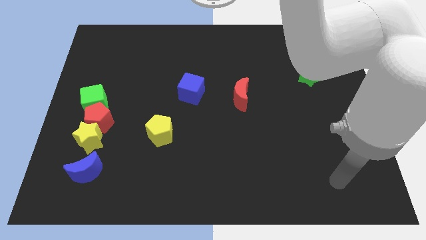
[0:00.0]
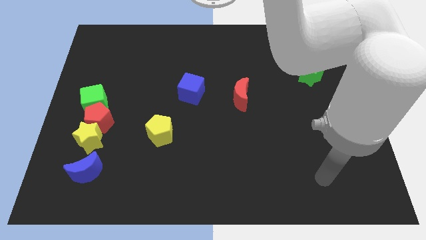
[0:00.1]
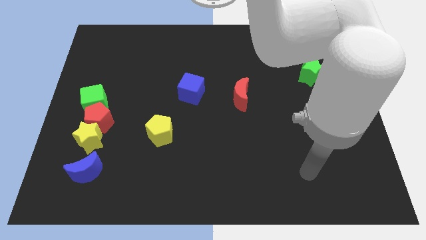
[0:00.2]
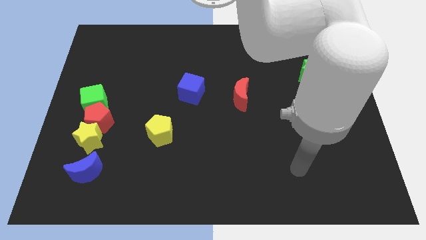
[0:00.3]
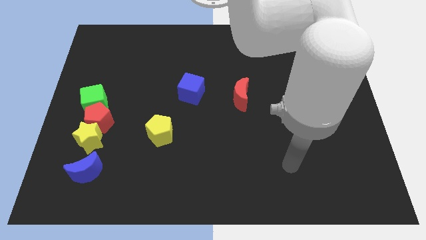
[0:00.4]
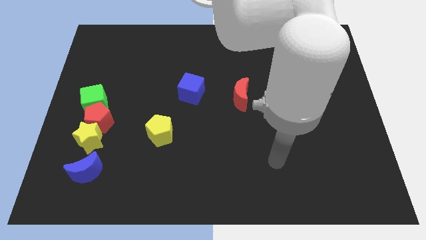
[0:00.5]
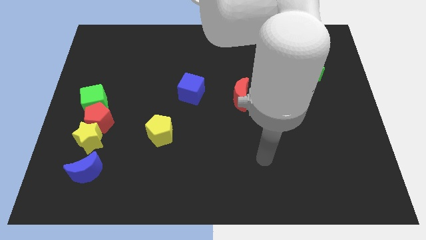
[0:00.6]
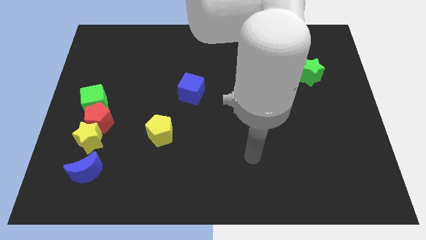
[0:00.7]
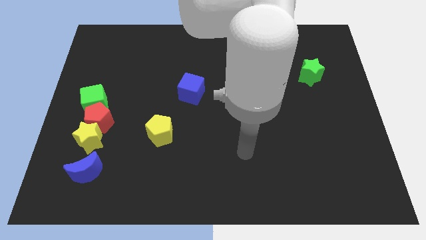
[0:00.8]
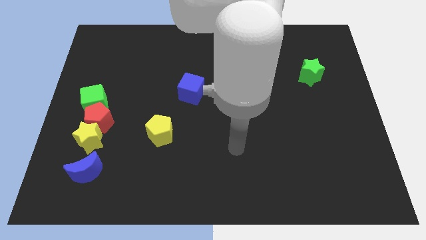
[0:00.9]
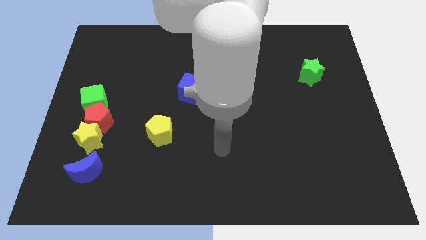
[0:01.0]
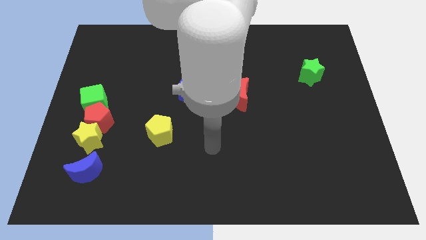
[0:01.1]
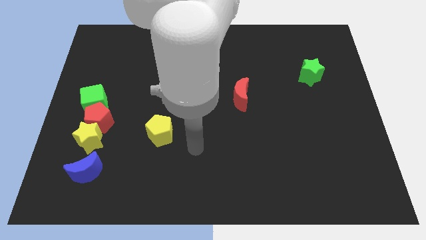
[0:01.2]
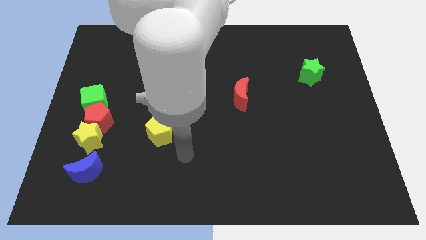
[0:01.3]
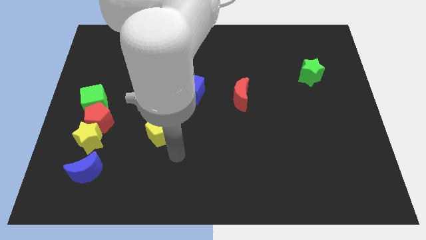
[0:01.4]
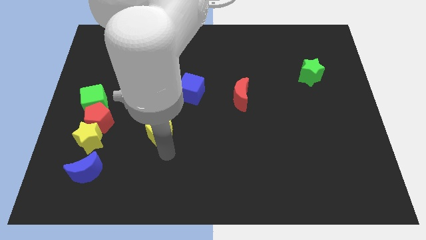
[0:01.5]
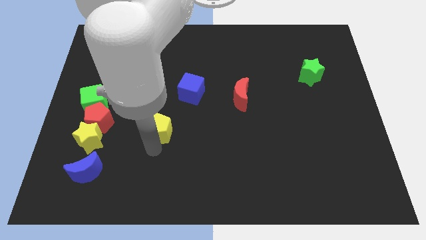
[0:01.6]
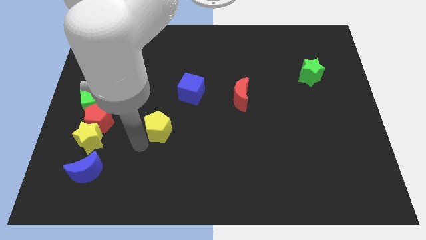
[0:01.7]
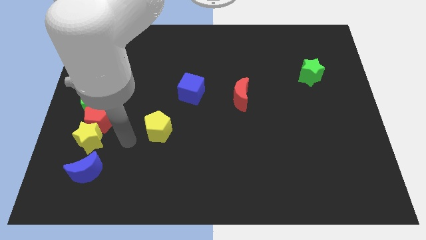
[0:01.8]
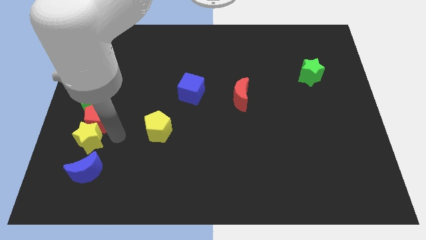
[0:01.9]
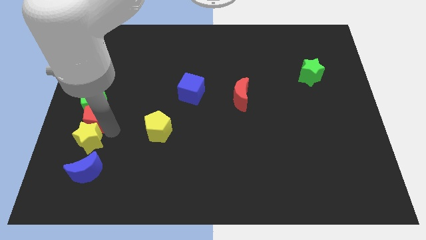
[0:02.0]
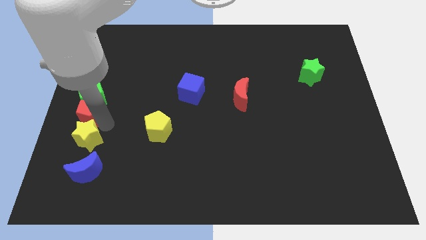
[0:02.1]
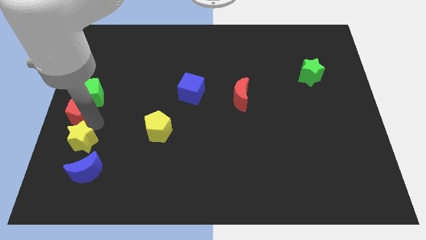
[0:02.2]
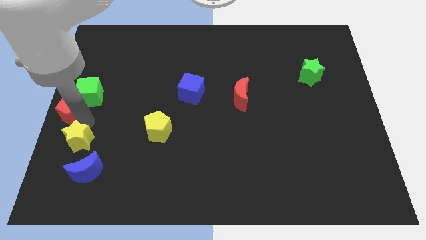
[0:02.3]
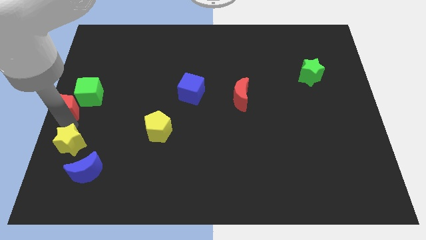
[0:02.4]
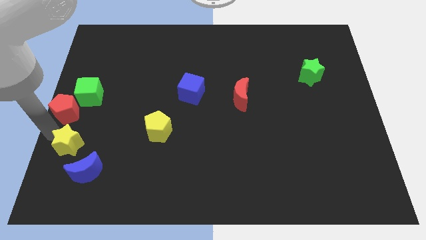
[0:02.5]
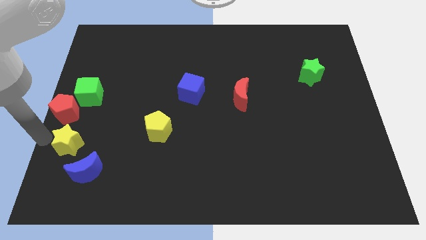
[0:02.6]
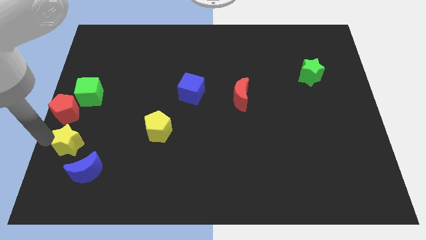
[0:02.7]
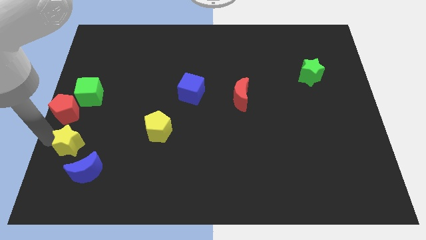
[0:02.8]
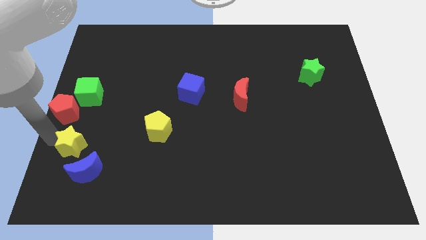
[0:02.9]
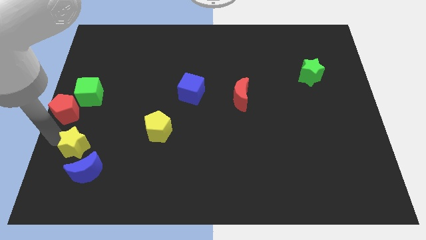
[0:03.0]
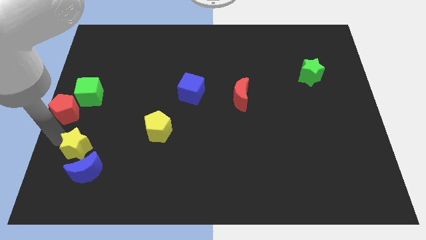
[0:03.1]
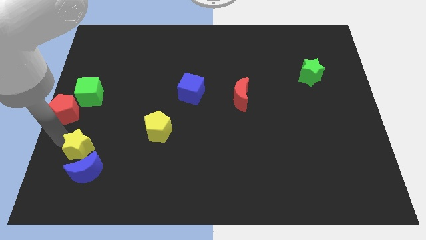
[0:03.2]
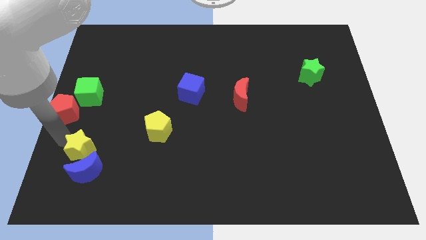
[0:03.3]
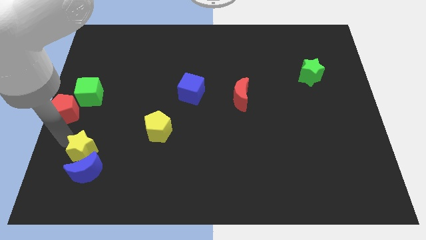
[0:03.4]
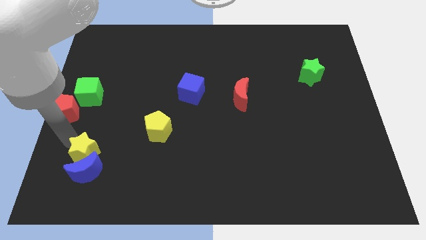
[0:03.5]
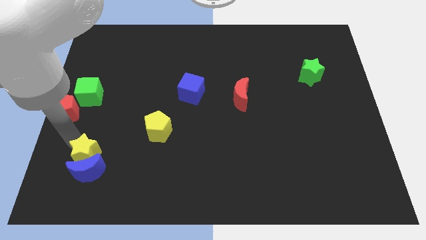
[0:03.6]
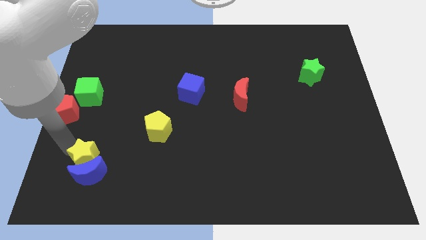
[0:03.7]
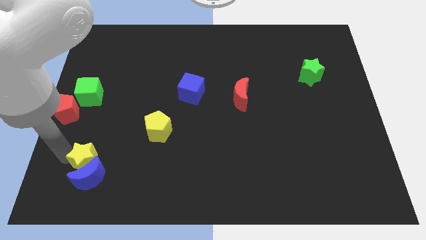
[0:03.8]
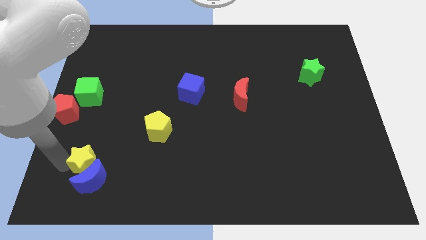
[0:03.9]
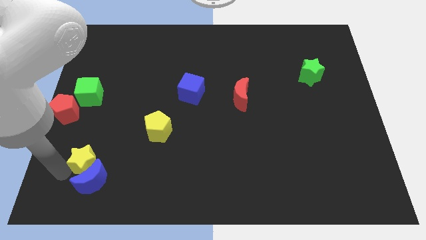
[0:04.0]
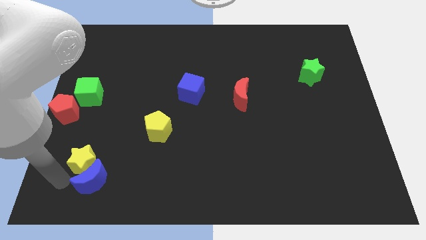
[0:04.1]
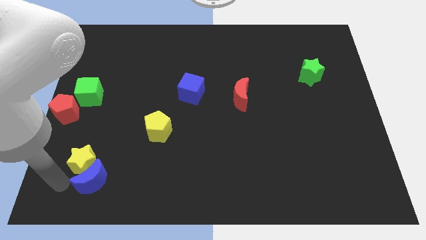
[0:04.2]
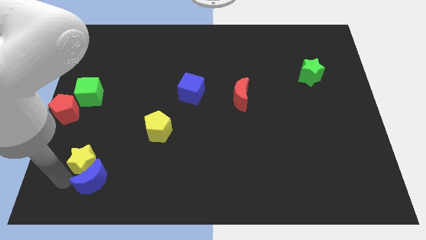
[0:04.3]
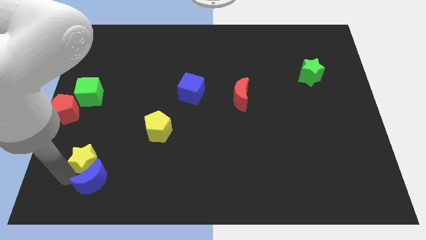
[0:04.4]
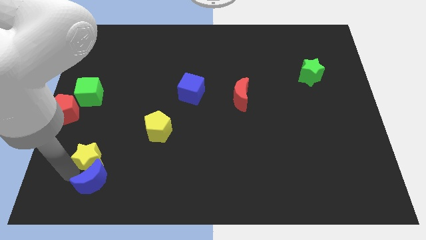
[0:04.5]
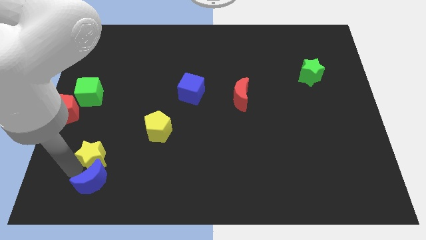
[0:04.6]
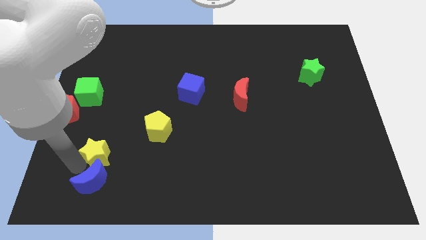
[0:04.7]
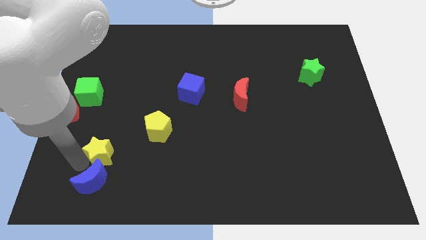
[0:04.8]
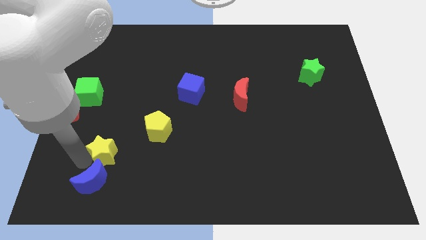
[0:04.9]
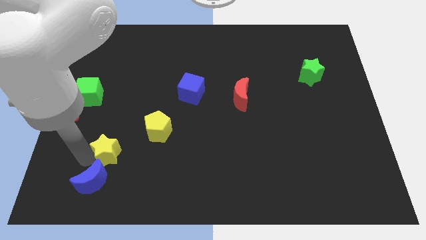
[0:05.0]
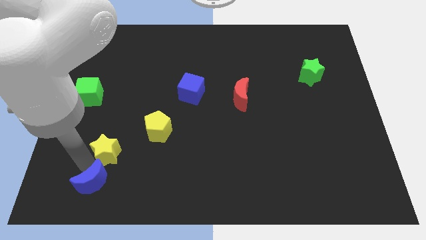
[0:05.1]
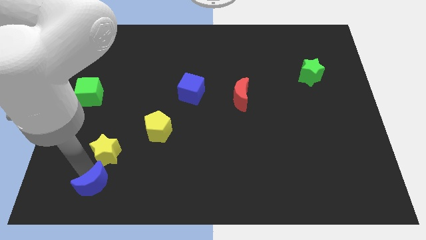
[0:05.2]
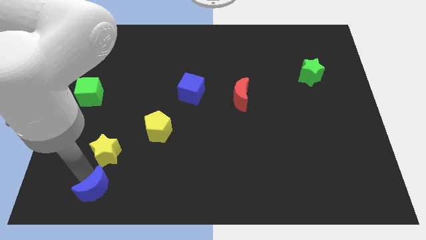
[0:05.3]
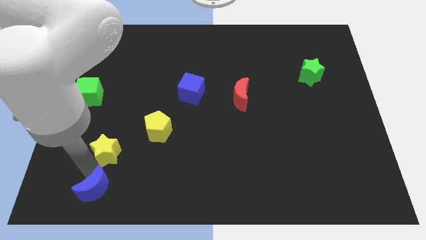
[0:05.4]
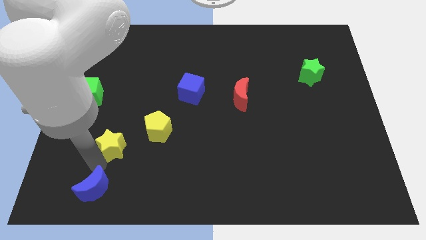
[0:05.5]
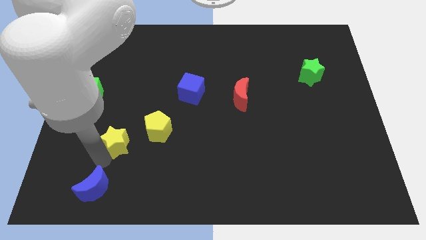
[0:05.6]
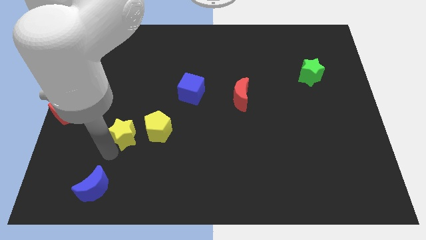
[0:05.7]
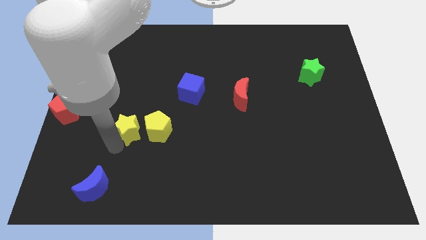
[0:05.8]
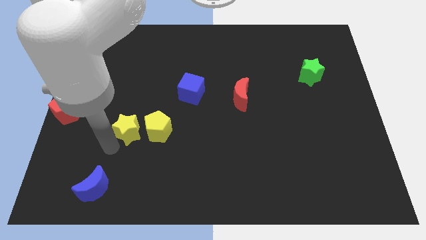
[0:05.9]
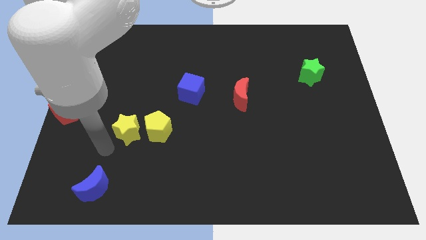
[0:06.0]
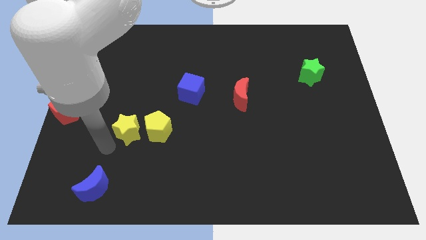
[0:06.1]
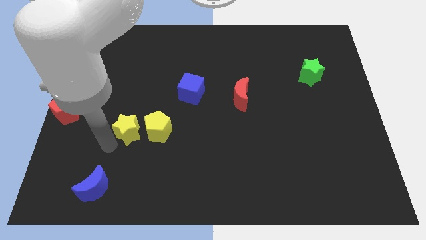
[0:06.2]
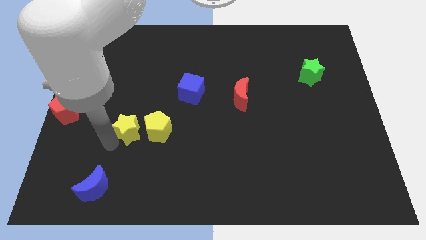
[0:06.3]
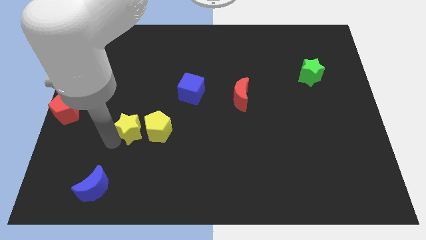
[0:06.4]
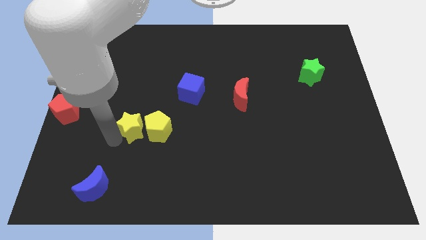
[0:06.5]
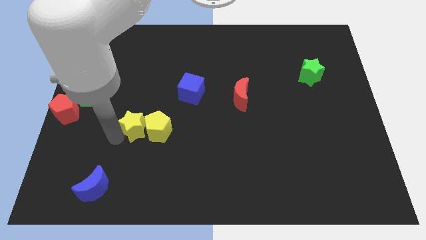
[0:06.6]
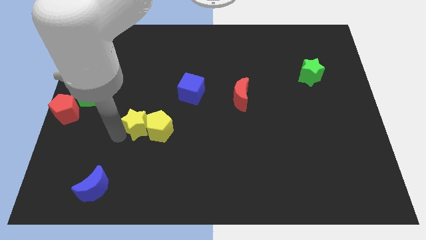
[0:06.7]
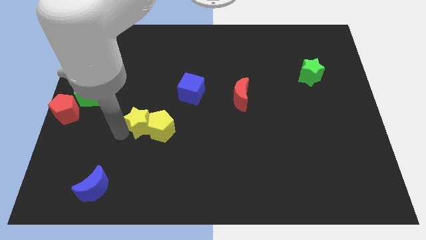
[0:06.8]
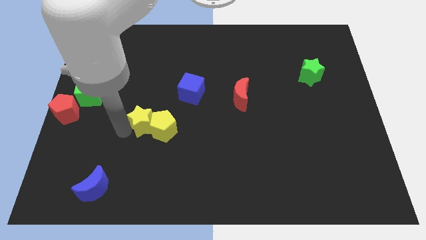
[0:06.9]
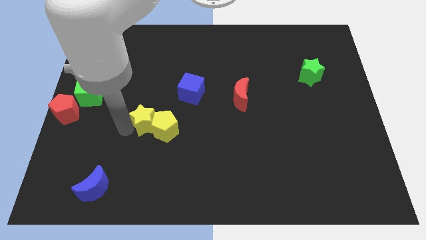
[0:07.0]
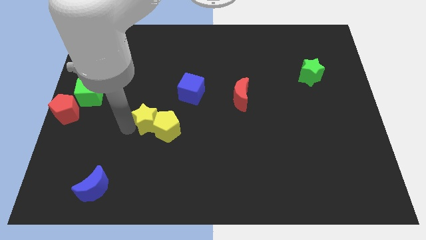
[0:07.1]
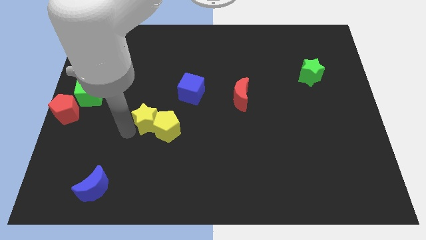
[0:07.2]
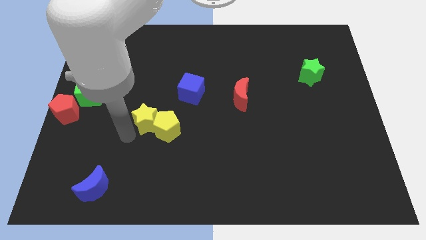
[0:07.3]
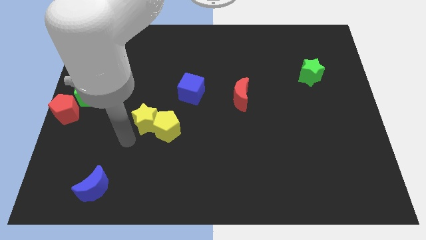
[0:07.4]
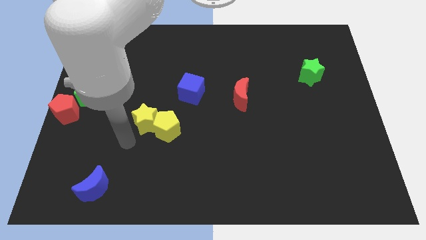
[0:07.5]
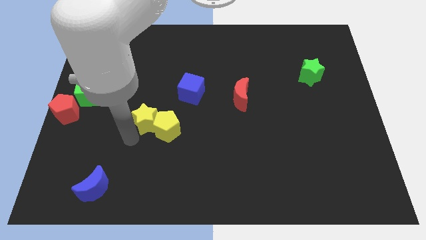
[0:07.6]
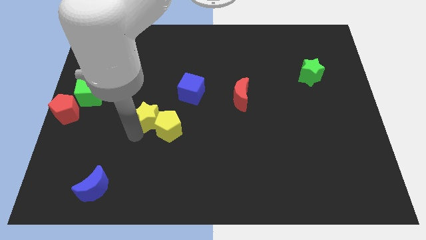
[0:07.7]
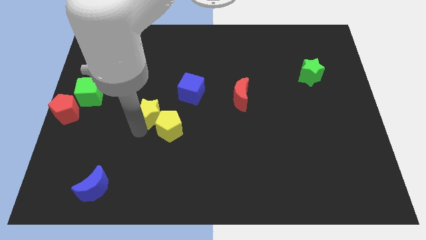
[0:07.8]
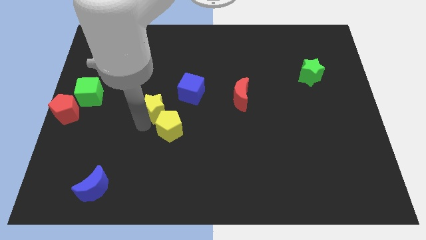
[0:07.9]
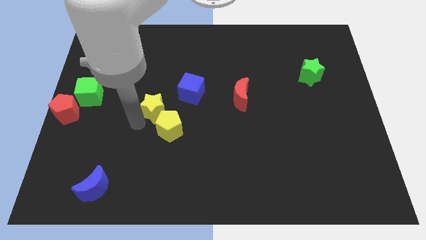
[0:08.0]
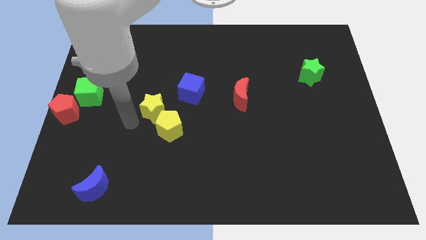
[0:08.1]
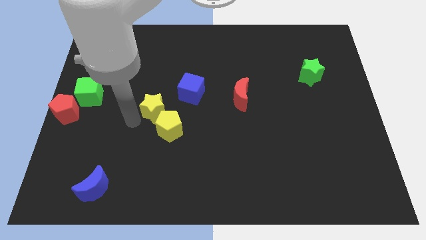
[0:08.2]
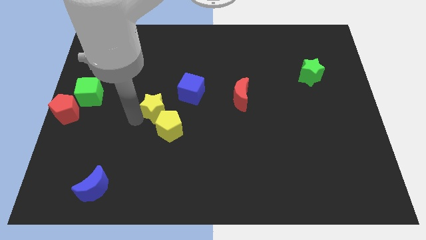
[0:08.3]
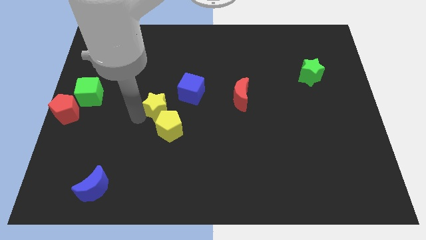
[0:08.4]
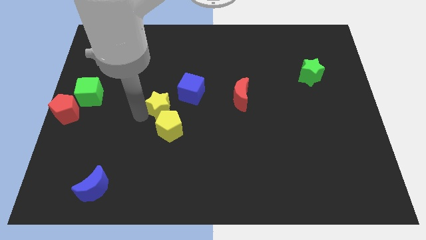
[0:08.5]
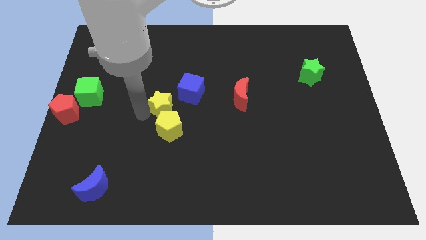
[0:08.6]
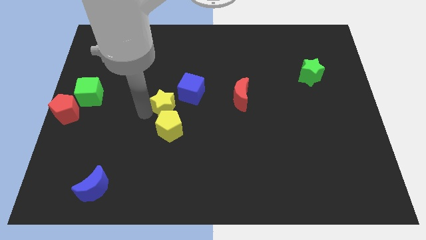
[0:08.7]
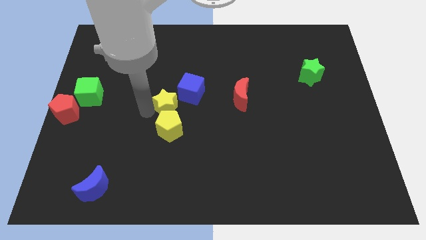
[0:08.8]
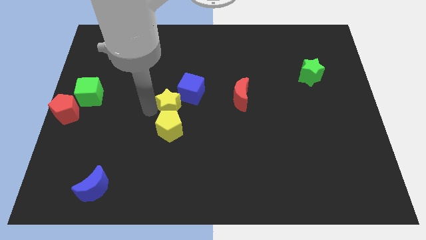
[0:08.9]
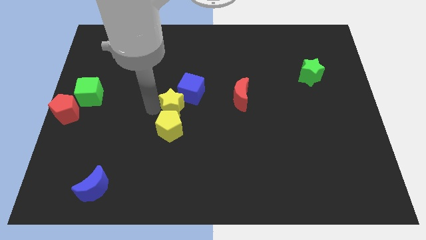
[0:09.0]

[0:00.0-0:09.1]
move the yellow star to the blue cube
